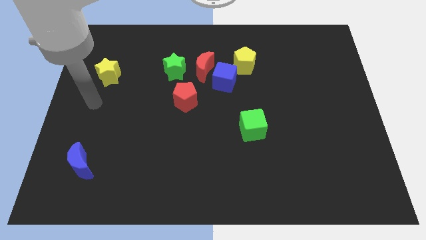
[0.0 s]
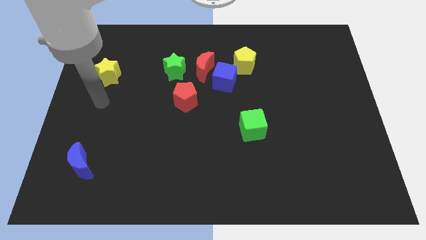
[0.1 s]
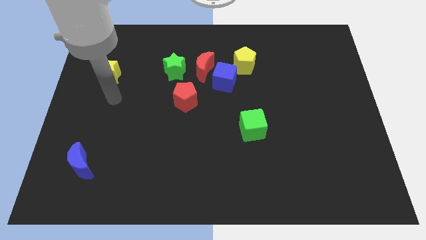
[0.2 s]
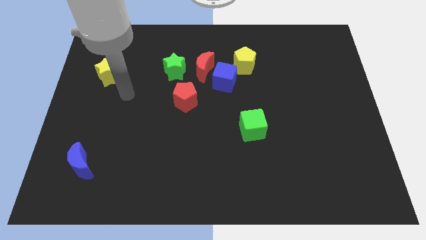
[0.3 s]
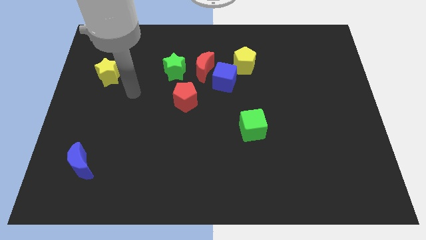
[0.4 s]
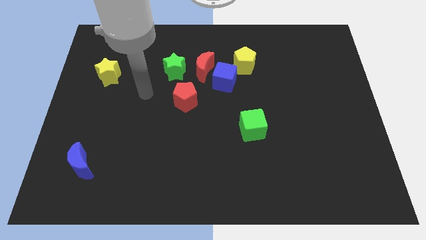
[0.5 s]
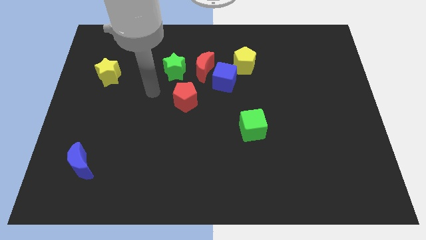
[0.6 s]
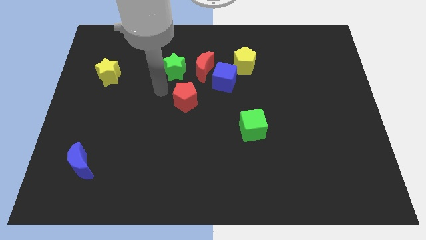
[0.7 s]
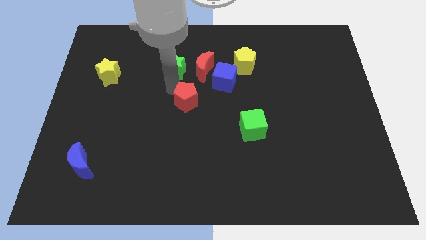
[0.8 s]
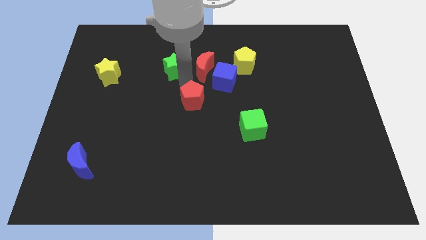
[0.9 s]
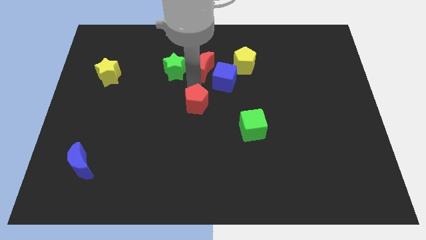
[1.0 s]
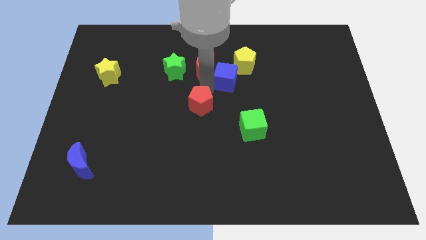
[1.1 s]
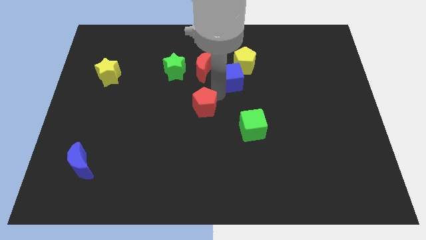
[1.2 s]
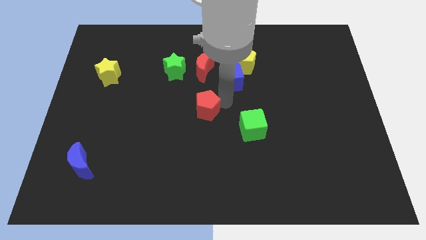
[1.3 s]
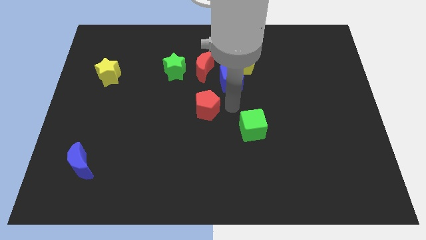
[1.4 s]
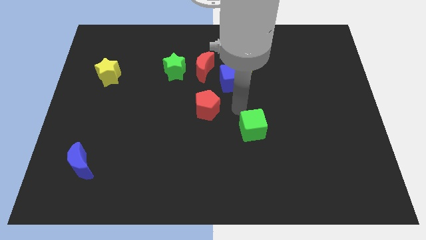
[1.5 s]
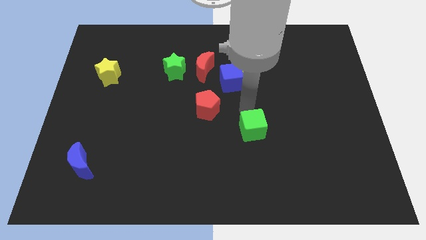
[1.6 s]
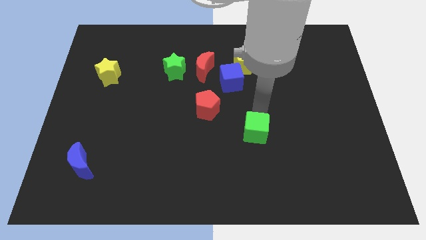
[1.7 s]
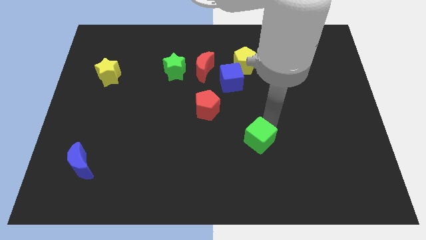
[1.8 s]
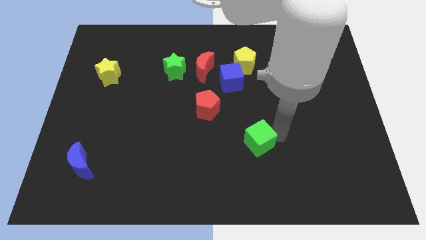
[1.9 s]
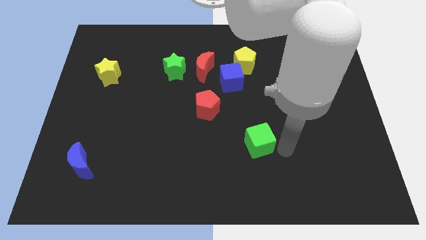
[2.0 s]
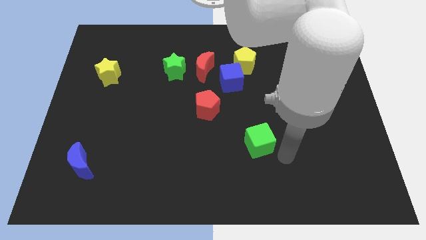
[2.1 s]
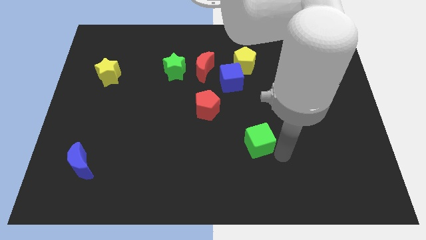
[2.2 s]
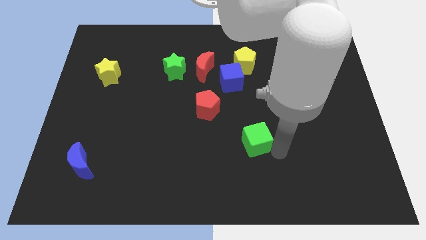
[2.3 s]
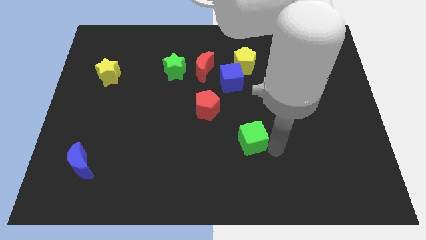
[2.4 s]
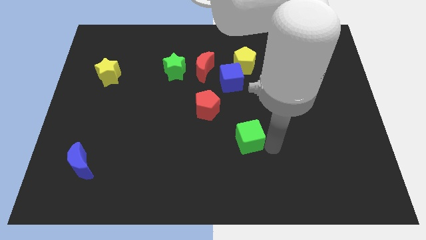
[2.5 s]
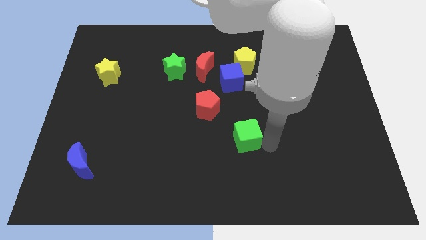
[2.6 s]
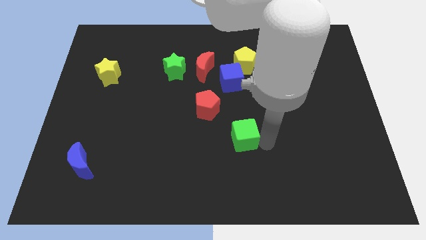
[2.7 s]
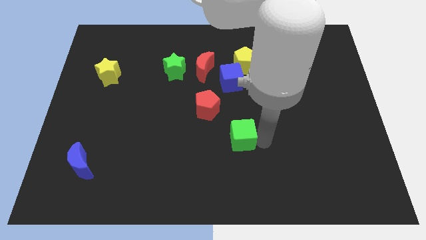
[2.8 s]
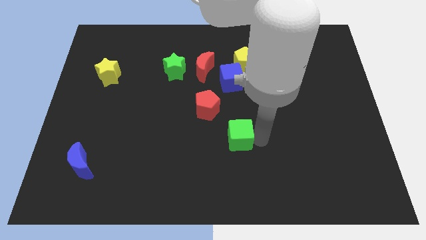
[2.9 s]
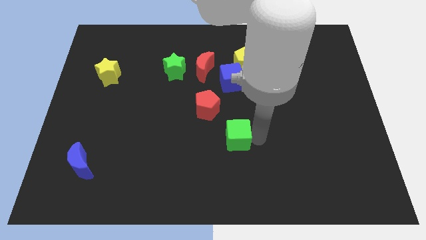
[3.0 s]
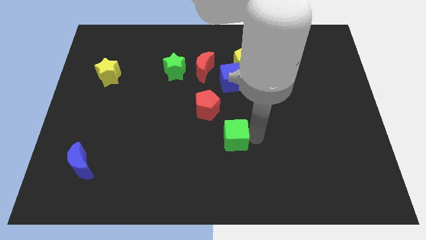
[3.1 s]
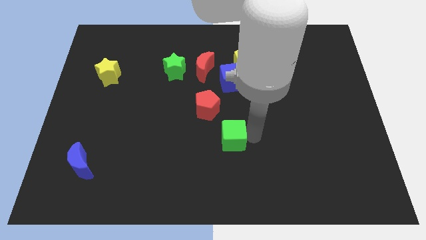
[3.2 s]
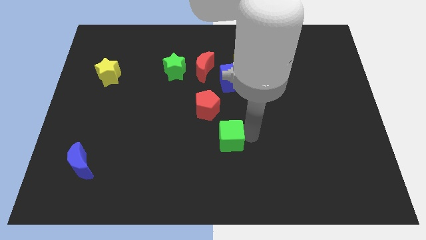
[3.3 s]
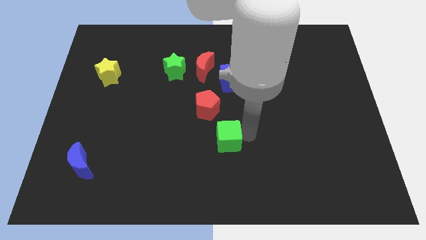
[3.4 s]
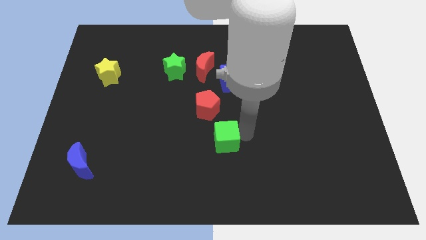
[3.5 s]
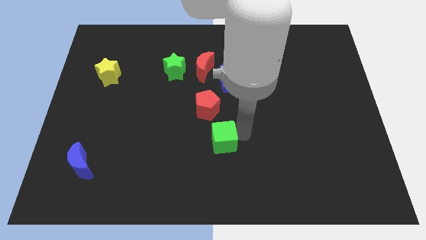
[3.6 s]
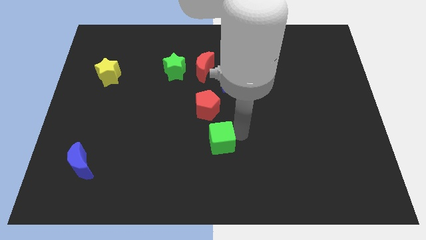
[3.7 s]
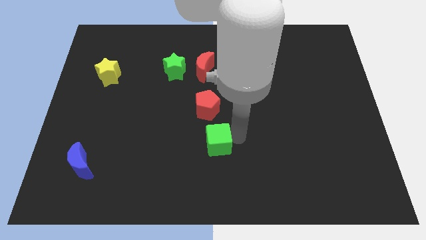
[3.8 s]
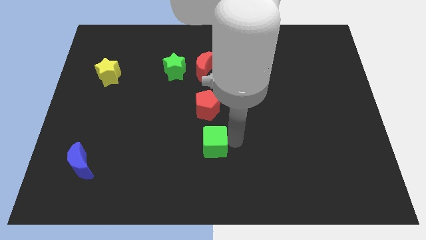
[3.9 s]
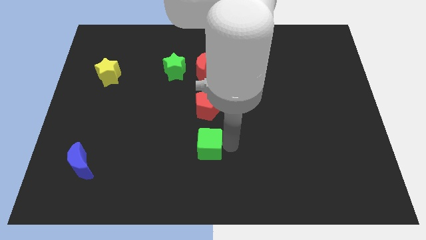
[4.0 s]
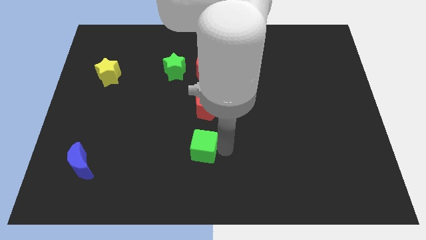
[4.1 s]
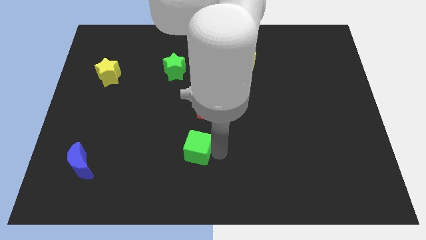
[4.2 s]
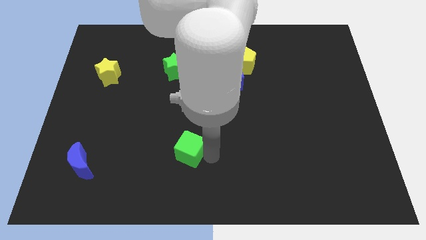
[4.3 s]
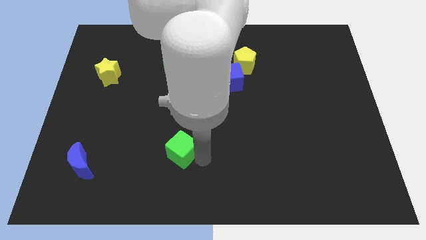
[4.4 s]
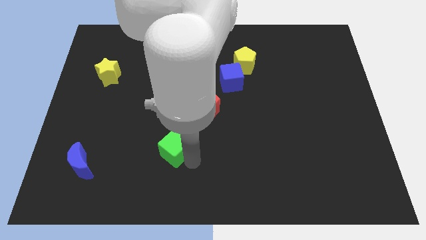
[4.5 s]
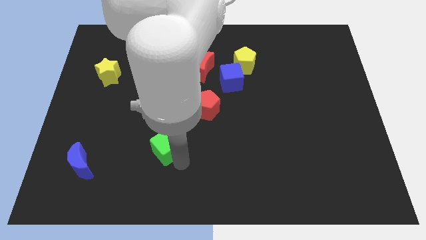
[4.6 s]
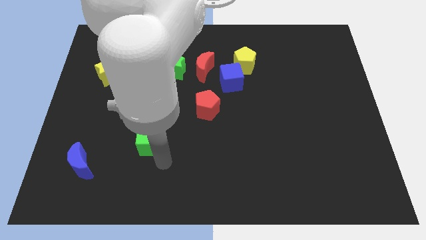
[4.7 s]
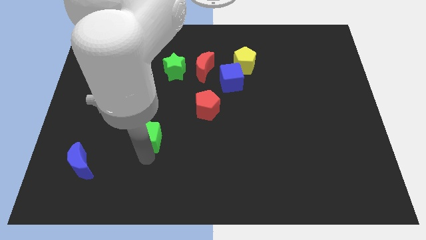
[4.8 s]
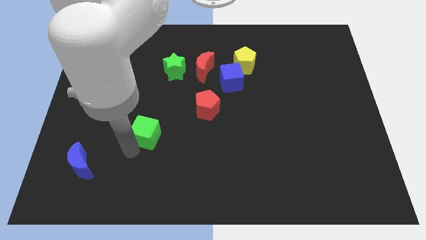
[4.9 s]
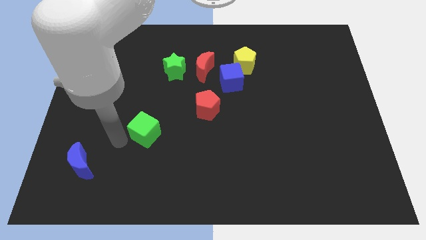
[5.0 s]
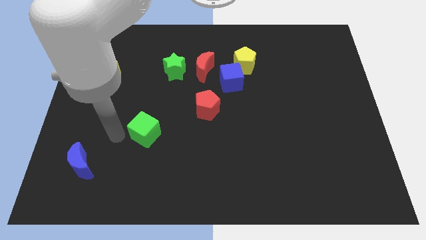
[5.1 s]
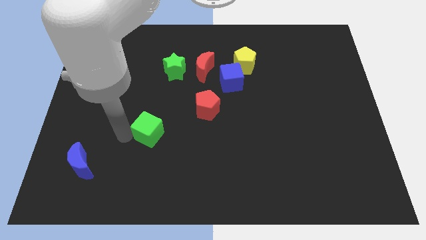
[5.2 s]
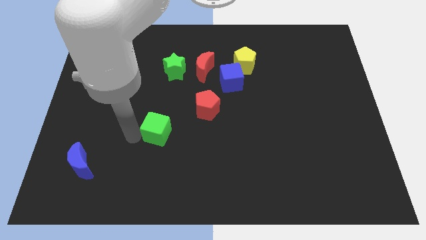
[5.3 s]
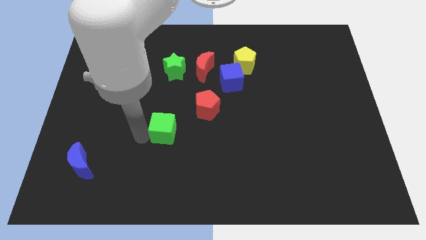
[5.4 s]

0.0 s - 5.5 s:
put the green cube to the bottom left of the red pentagon

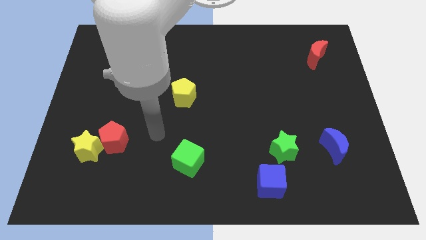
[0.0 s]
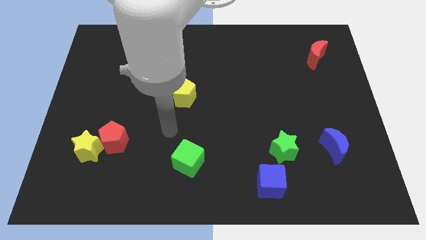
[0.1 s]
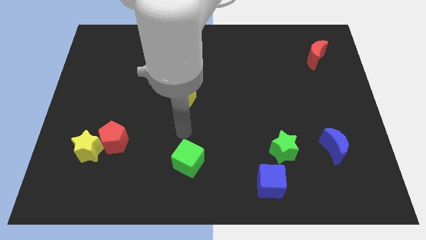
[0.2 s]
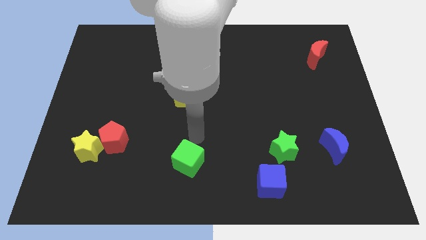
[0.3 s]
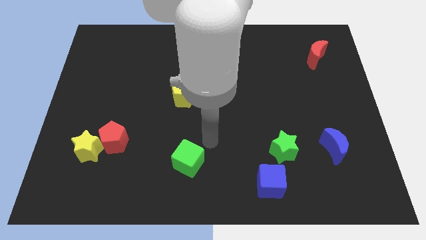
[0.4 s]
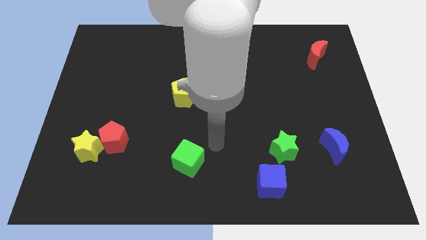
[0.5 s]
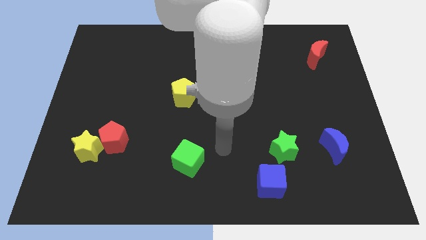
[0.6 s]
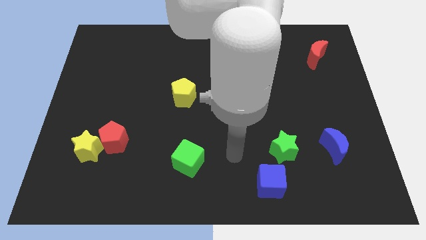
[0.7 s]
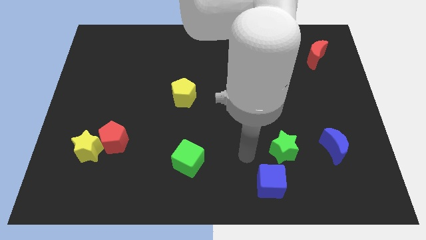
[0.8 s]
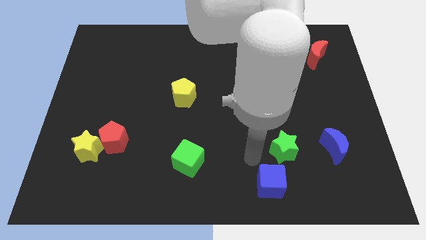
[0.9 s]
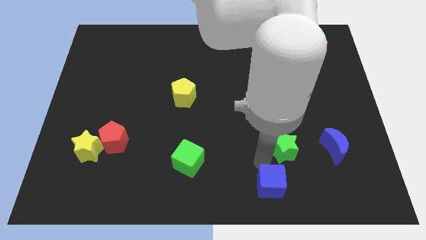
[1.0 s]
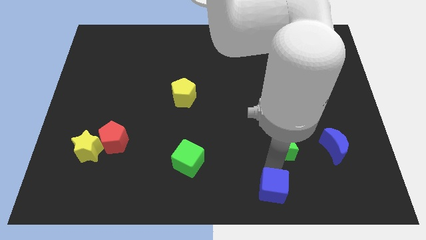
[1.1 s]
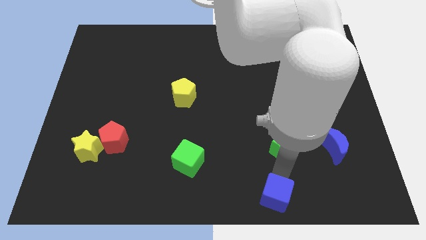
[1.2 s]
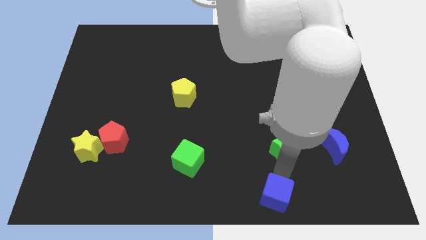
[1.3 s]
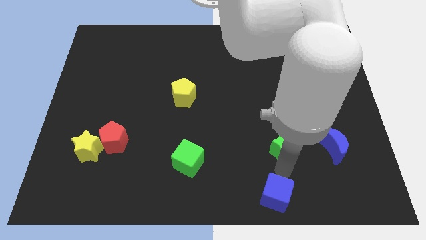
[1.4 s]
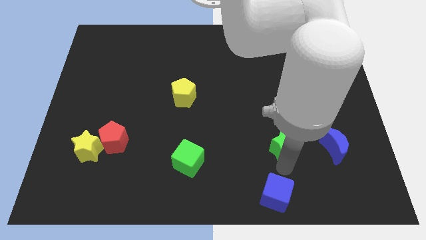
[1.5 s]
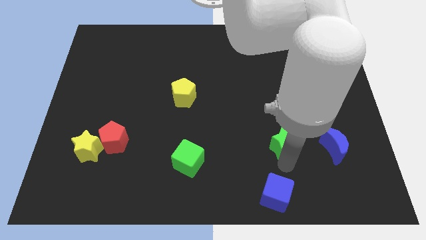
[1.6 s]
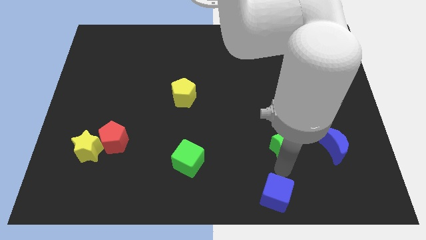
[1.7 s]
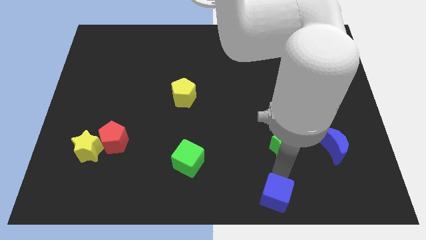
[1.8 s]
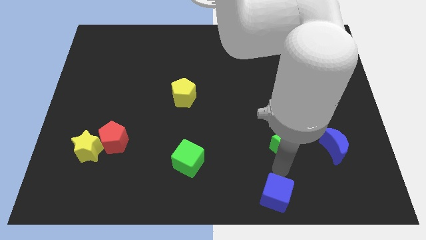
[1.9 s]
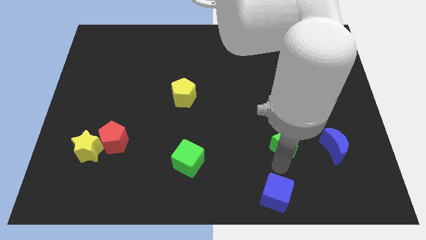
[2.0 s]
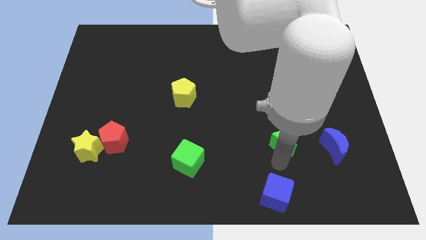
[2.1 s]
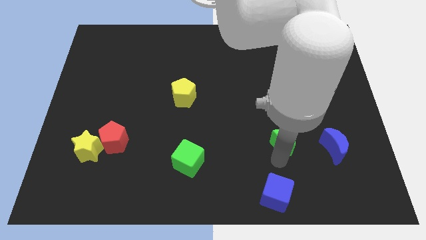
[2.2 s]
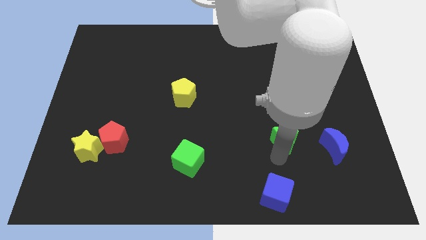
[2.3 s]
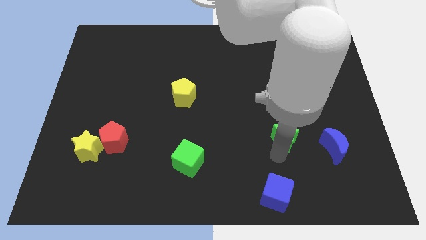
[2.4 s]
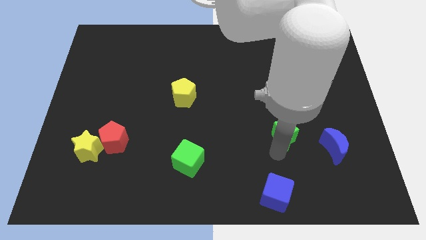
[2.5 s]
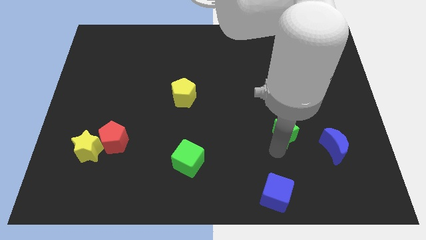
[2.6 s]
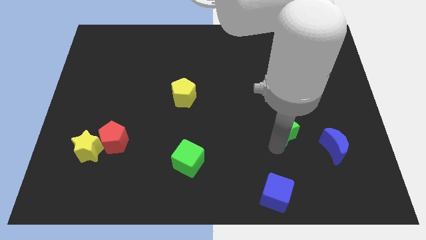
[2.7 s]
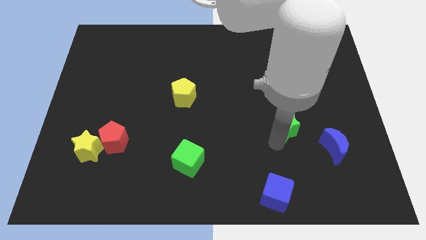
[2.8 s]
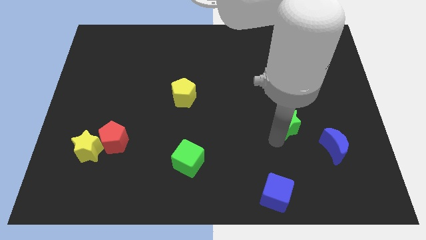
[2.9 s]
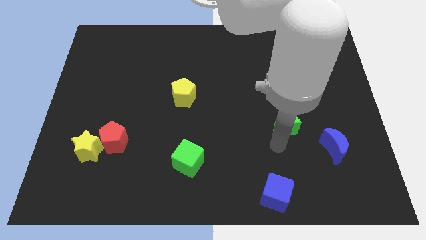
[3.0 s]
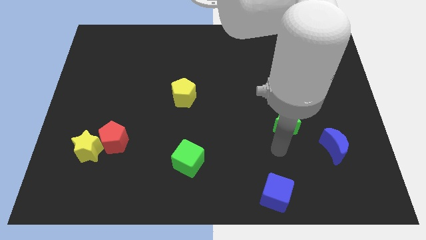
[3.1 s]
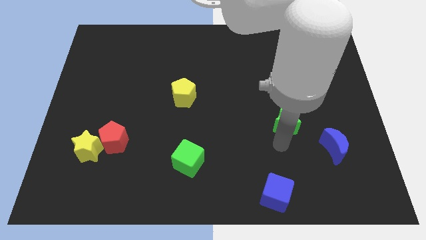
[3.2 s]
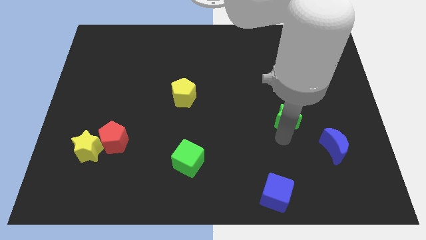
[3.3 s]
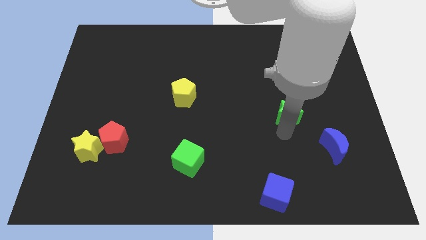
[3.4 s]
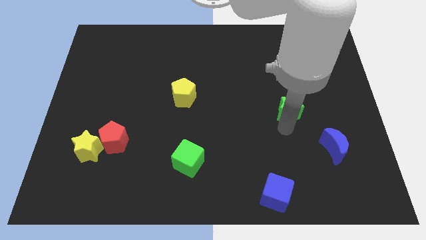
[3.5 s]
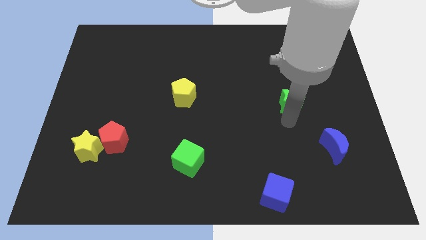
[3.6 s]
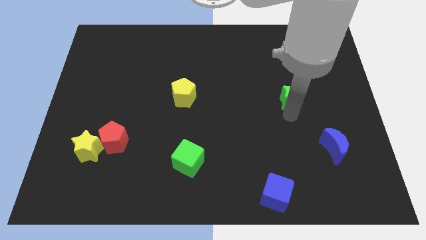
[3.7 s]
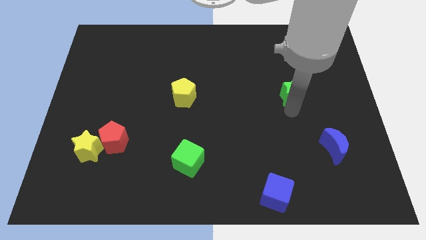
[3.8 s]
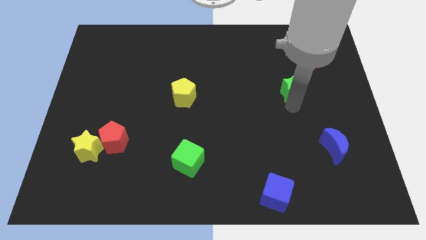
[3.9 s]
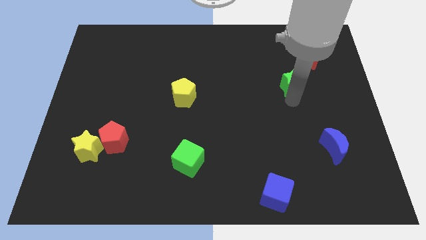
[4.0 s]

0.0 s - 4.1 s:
move the green star diagonally down and to the left of the red moon
